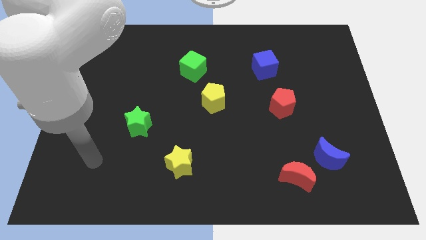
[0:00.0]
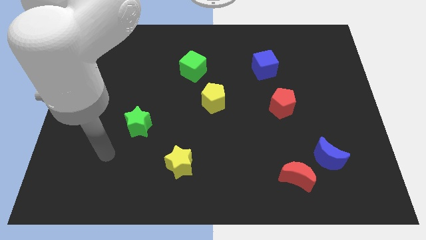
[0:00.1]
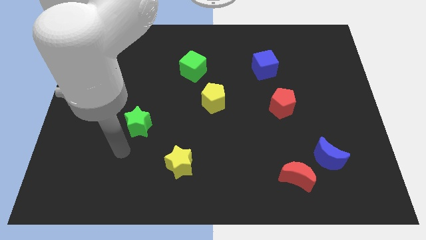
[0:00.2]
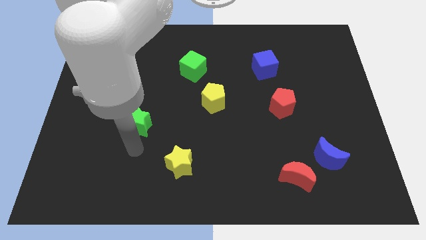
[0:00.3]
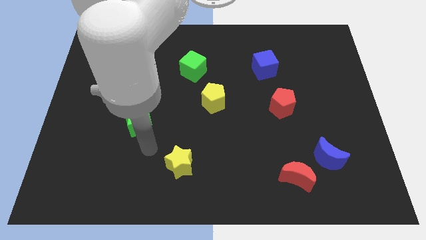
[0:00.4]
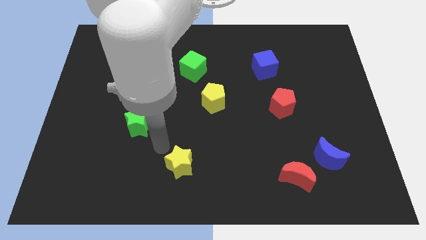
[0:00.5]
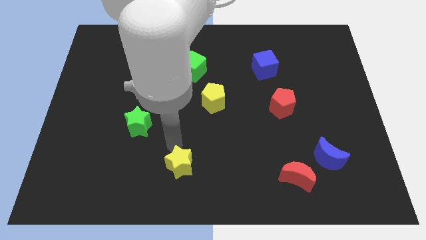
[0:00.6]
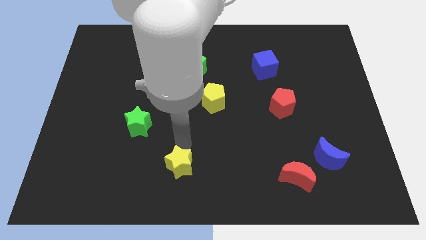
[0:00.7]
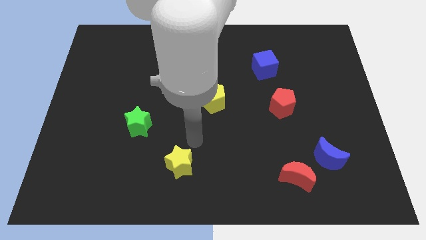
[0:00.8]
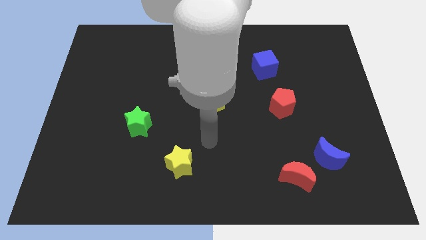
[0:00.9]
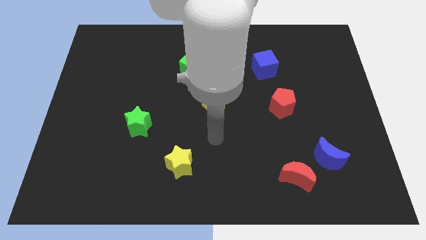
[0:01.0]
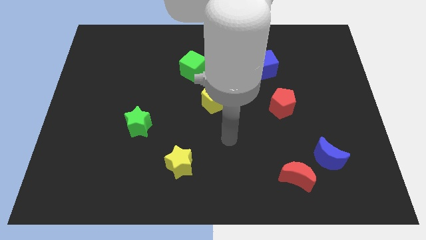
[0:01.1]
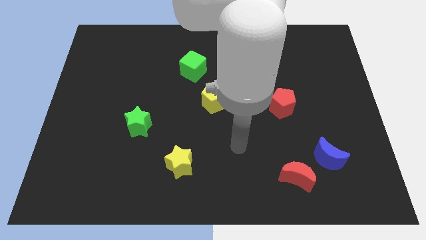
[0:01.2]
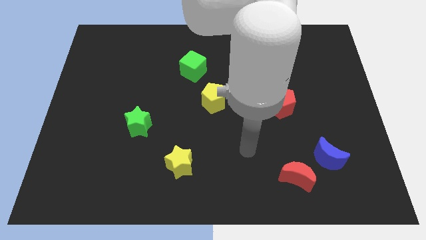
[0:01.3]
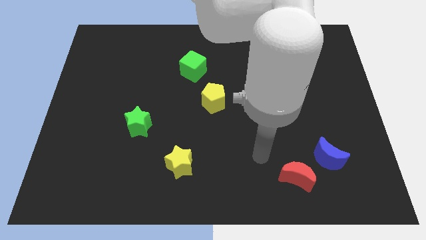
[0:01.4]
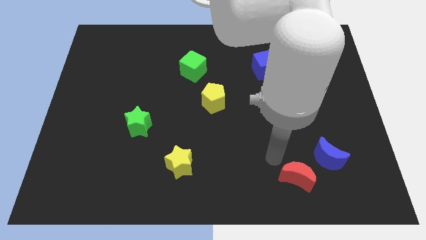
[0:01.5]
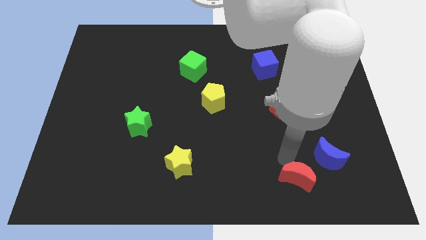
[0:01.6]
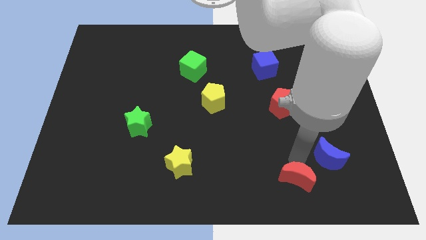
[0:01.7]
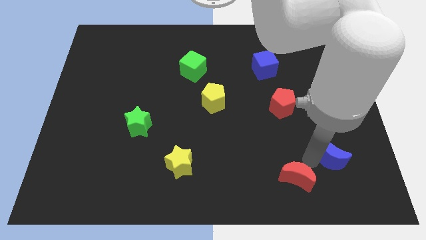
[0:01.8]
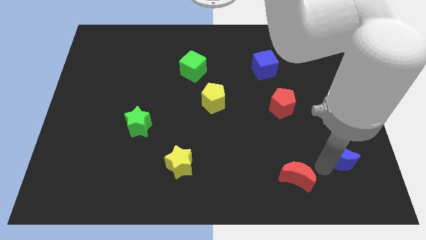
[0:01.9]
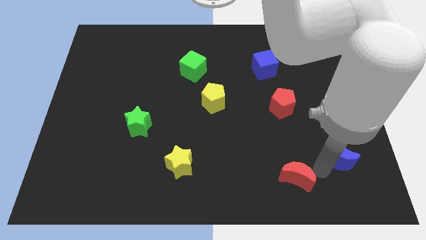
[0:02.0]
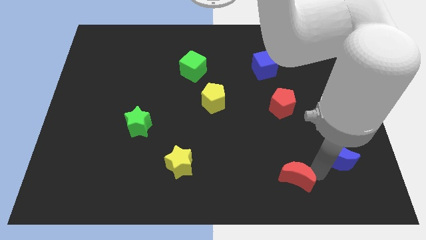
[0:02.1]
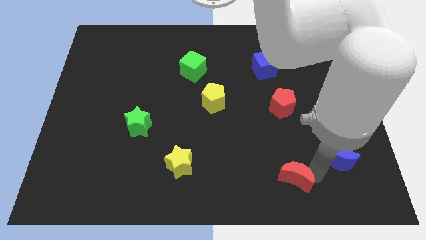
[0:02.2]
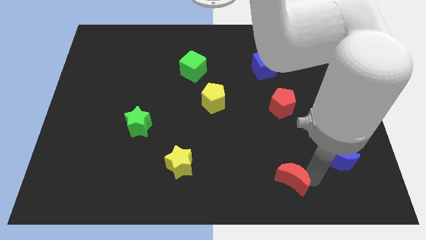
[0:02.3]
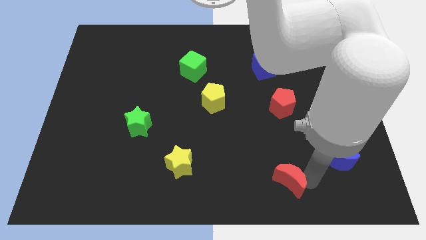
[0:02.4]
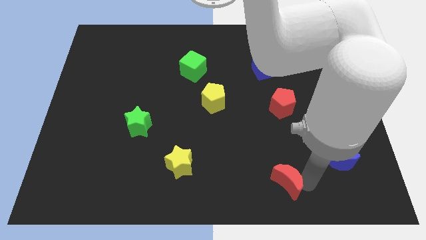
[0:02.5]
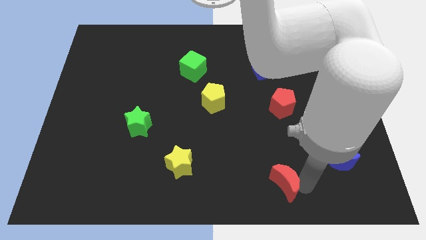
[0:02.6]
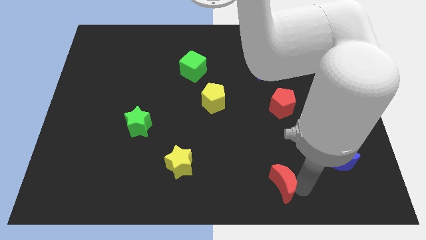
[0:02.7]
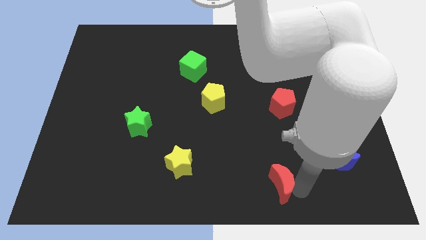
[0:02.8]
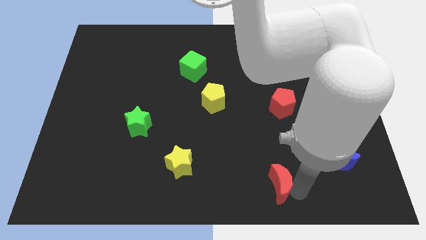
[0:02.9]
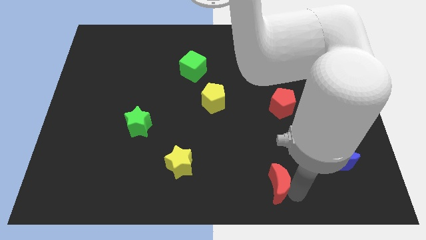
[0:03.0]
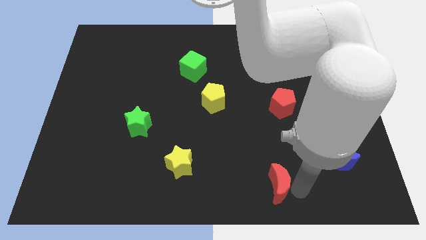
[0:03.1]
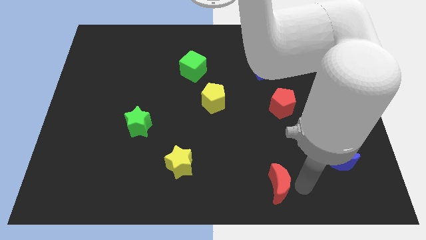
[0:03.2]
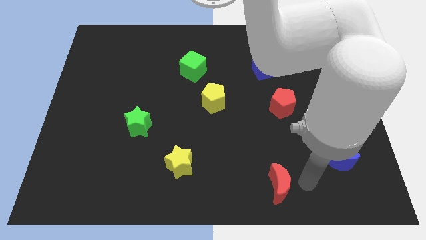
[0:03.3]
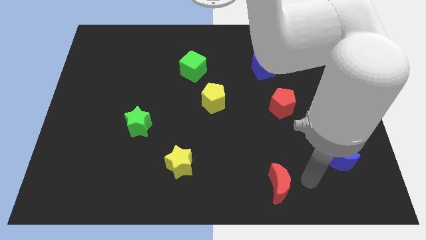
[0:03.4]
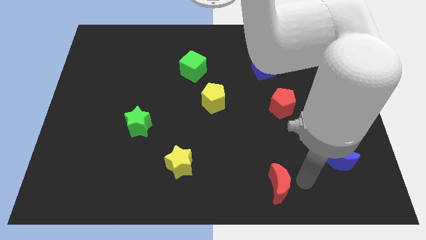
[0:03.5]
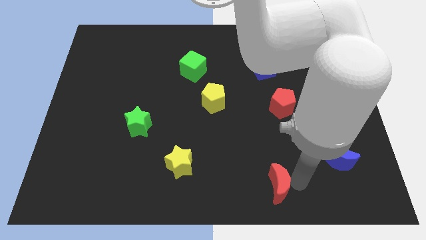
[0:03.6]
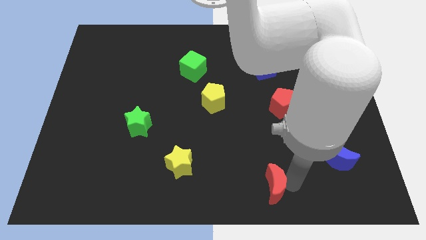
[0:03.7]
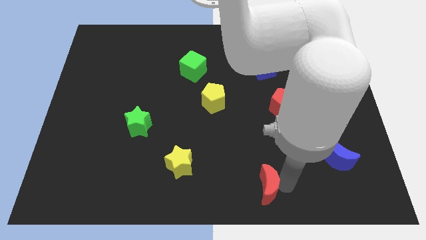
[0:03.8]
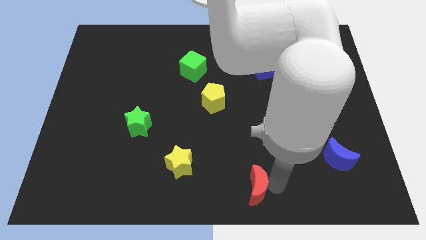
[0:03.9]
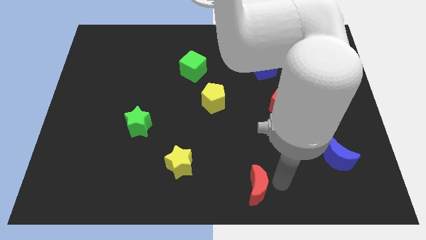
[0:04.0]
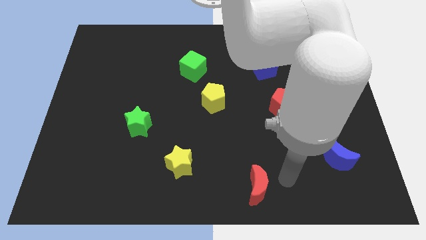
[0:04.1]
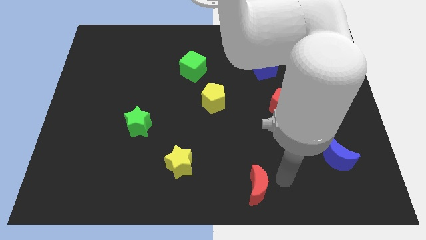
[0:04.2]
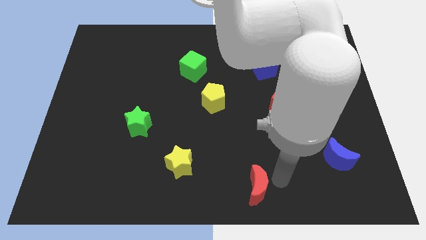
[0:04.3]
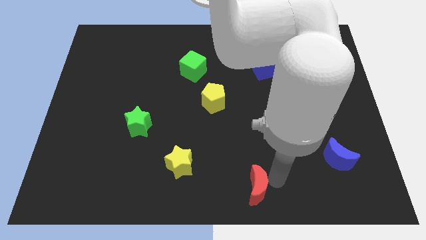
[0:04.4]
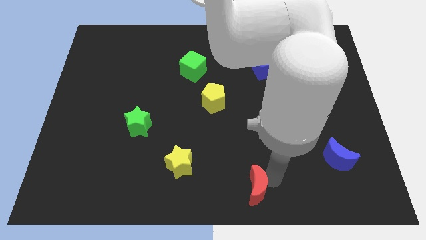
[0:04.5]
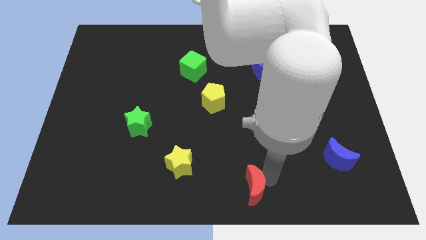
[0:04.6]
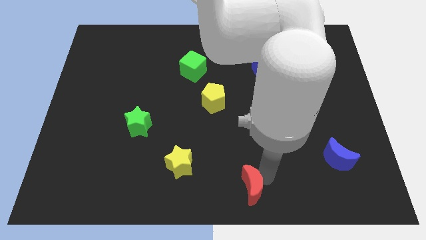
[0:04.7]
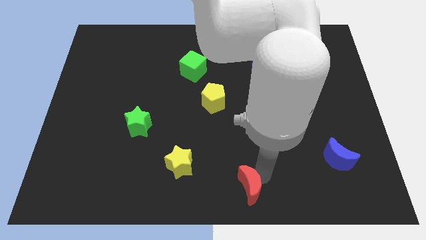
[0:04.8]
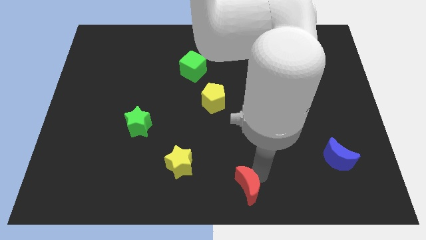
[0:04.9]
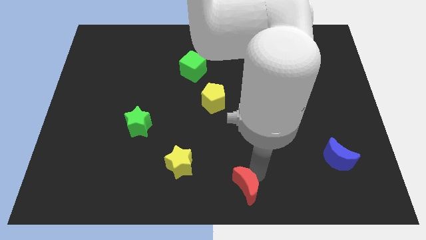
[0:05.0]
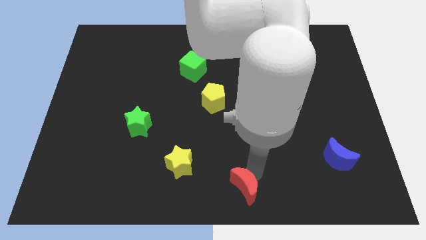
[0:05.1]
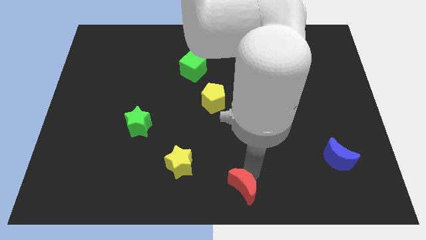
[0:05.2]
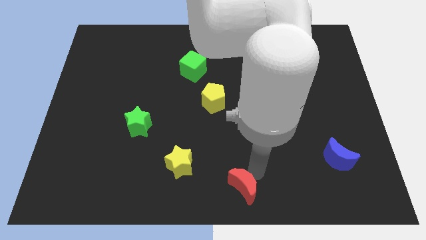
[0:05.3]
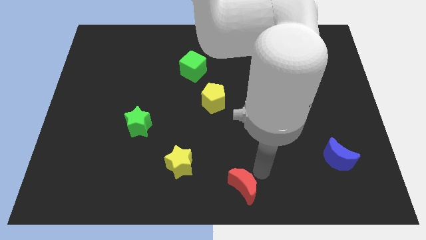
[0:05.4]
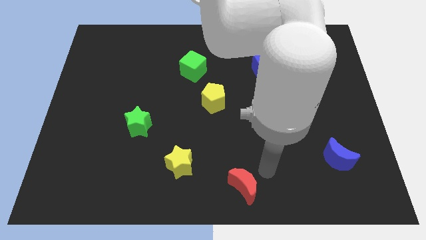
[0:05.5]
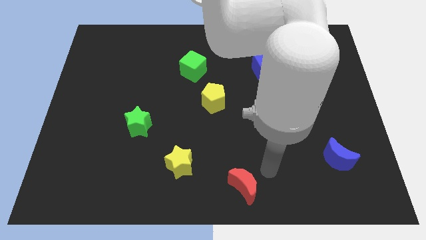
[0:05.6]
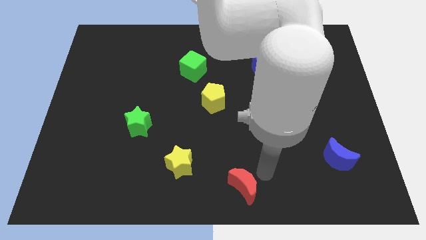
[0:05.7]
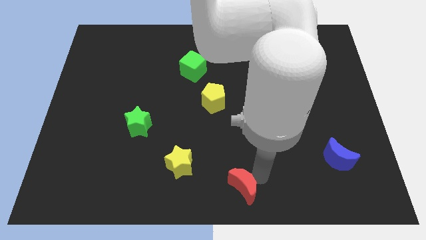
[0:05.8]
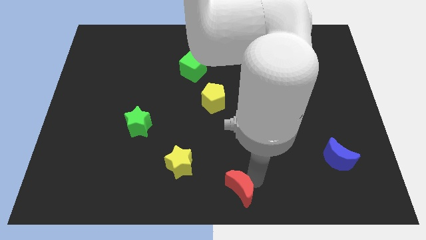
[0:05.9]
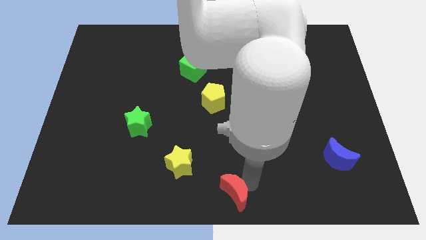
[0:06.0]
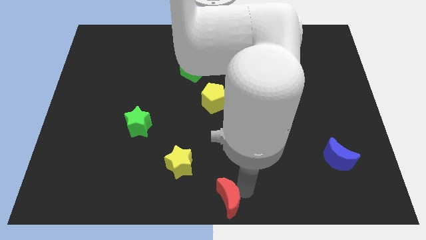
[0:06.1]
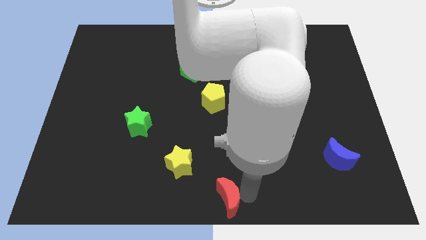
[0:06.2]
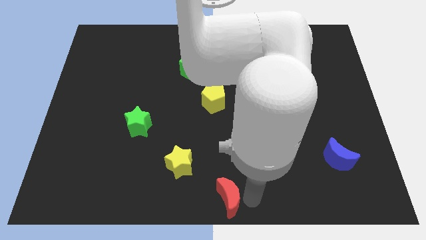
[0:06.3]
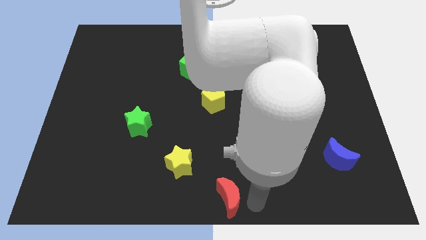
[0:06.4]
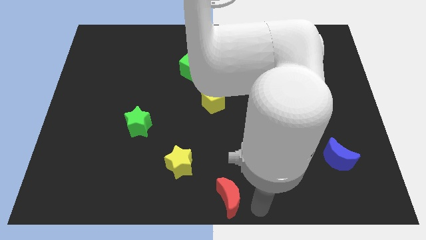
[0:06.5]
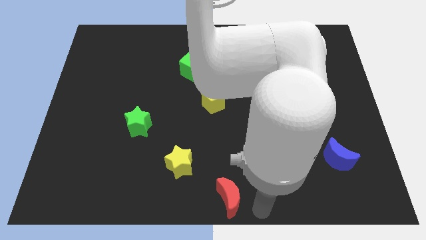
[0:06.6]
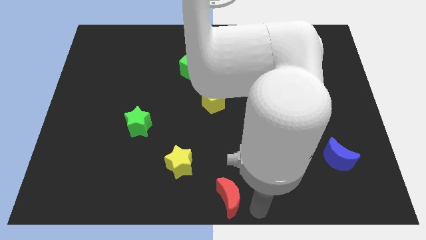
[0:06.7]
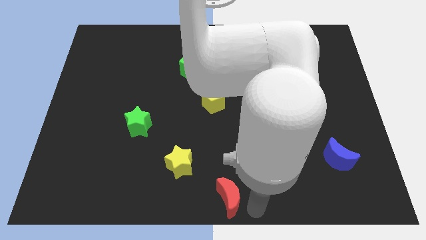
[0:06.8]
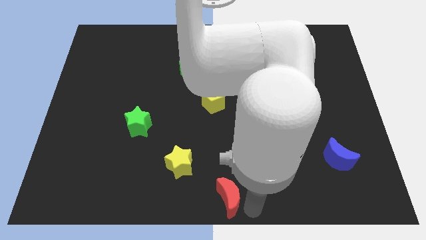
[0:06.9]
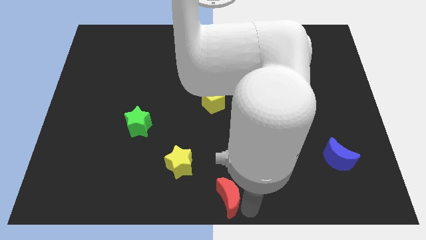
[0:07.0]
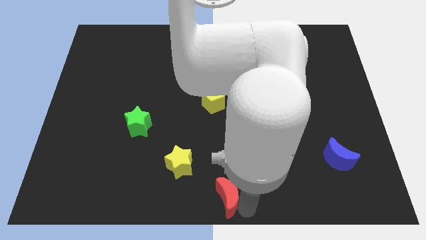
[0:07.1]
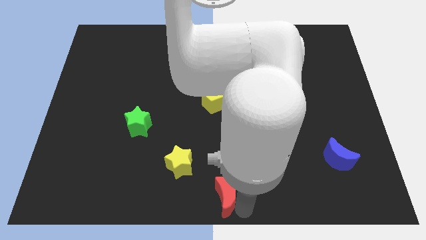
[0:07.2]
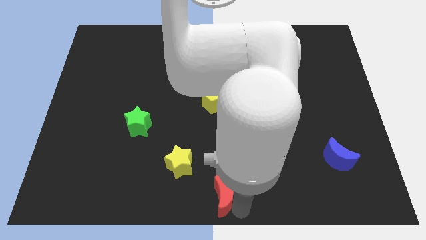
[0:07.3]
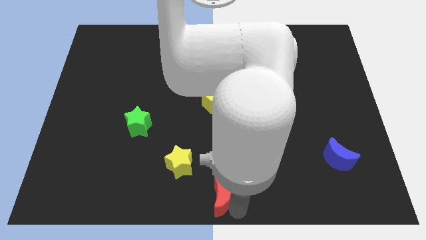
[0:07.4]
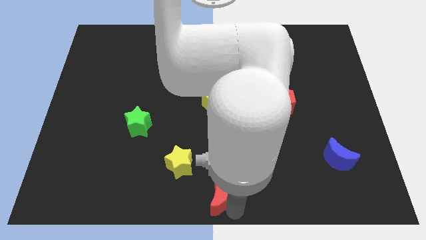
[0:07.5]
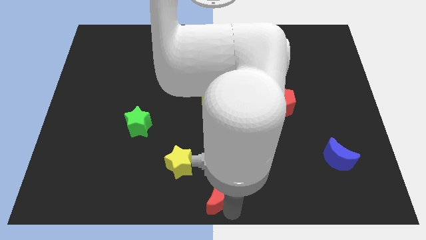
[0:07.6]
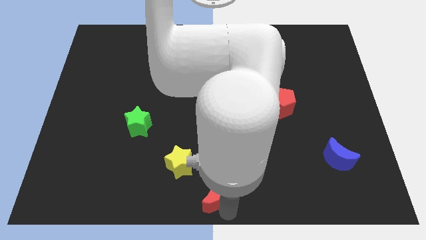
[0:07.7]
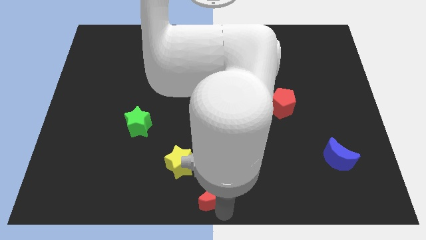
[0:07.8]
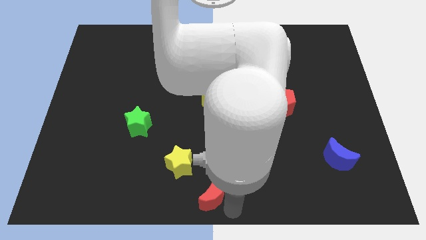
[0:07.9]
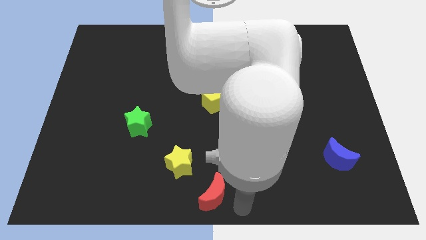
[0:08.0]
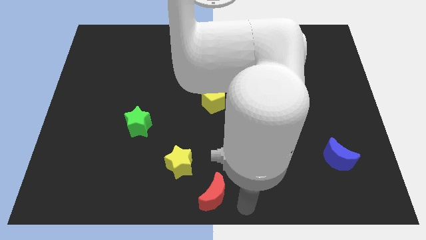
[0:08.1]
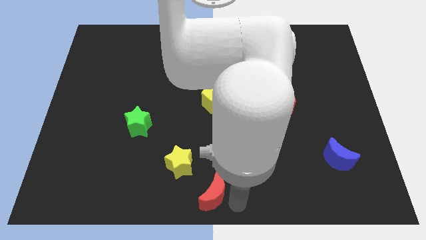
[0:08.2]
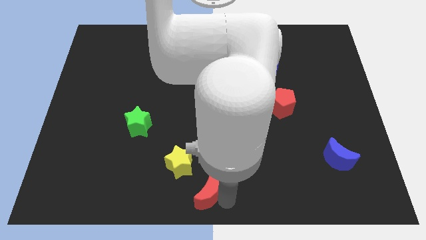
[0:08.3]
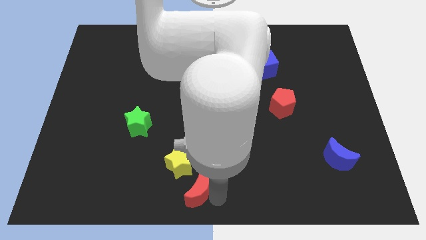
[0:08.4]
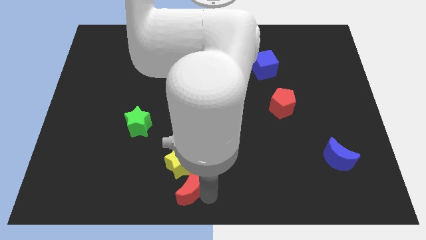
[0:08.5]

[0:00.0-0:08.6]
push the red moon left
